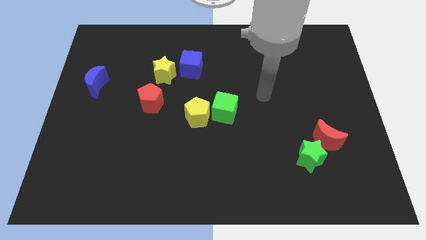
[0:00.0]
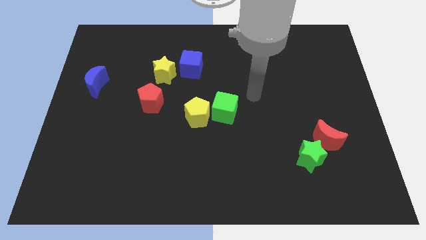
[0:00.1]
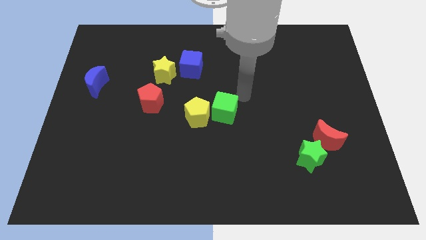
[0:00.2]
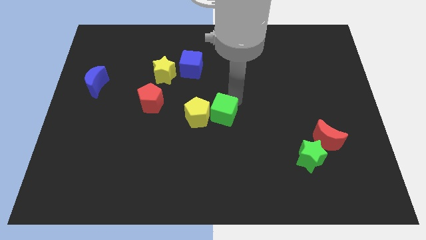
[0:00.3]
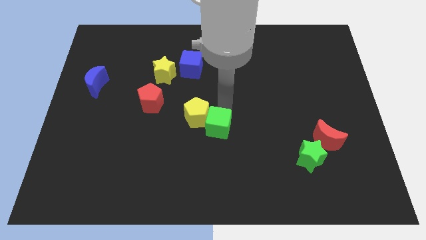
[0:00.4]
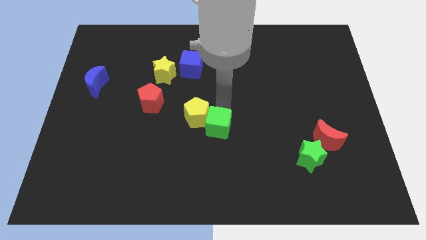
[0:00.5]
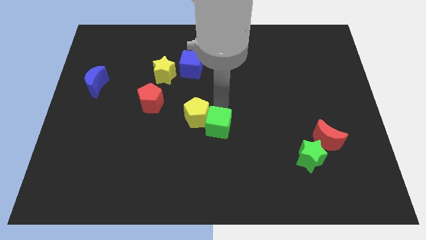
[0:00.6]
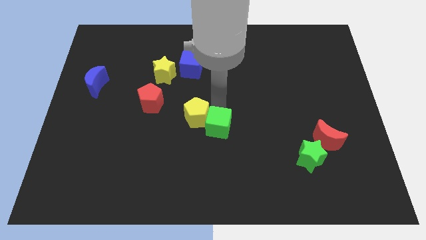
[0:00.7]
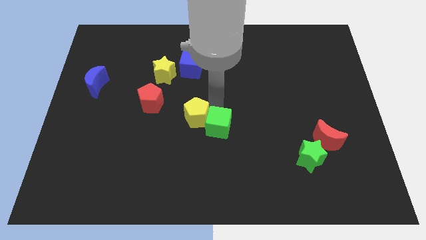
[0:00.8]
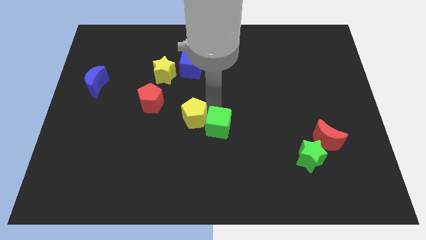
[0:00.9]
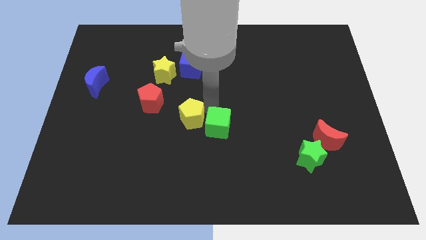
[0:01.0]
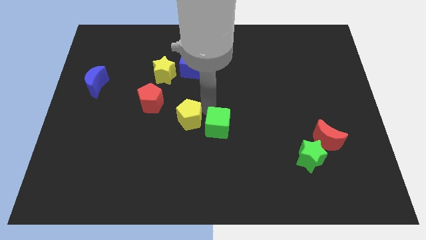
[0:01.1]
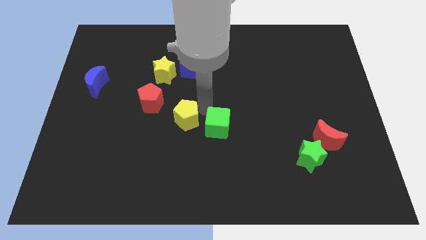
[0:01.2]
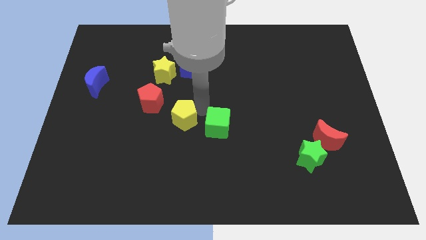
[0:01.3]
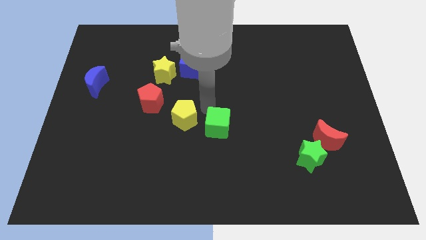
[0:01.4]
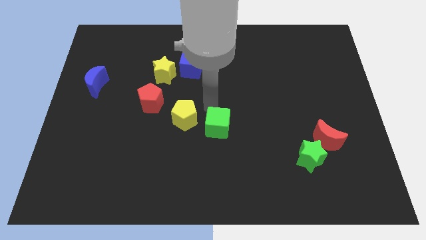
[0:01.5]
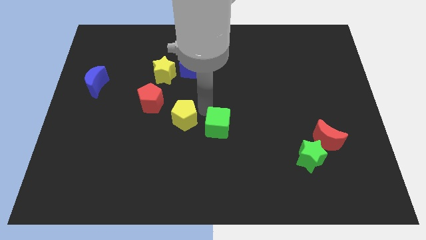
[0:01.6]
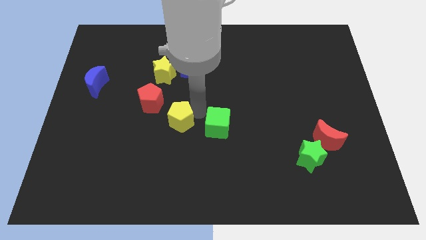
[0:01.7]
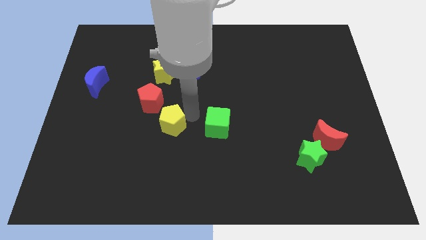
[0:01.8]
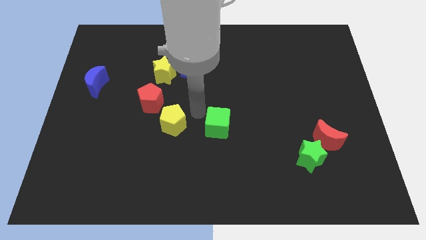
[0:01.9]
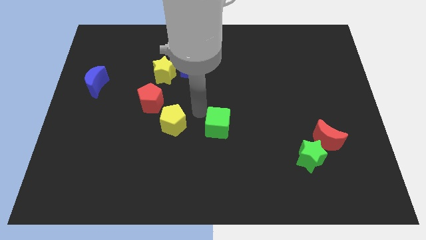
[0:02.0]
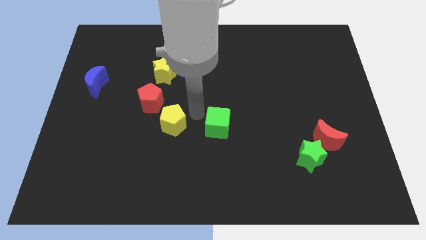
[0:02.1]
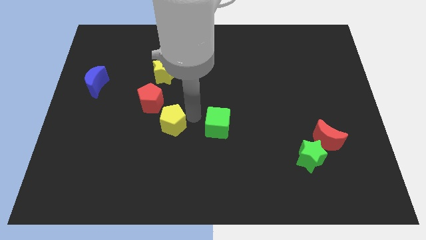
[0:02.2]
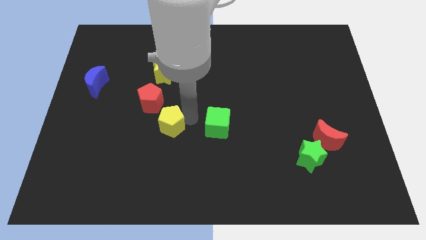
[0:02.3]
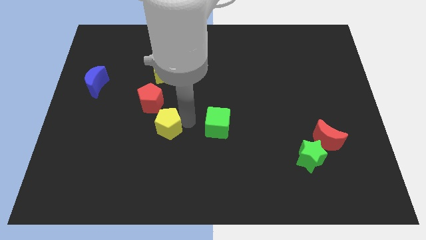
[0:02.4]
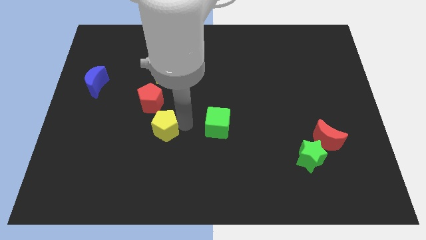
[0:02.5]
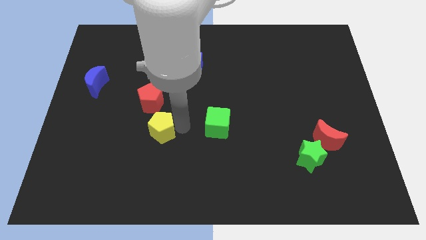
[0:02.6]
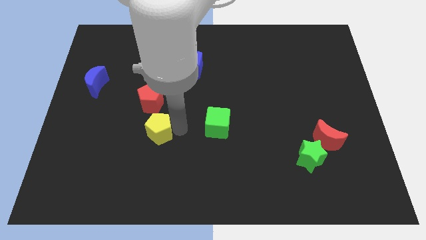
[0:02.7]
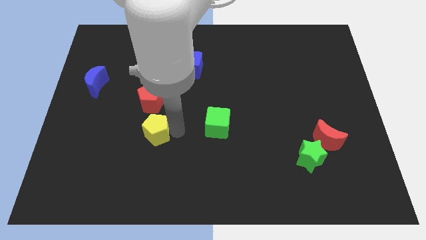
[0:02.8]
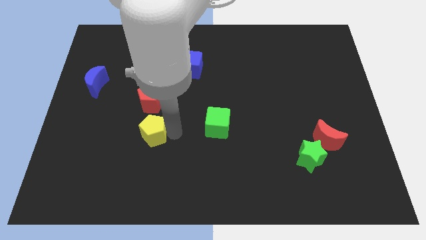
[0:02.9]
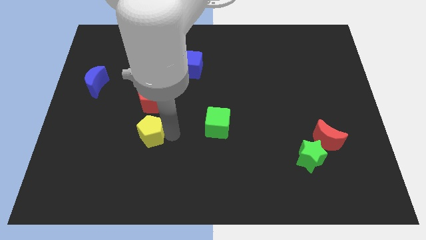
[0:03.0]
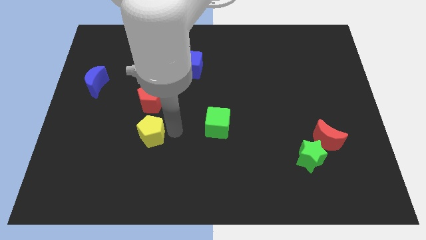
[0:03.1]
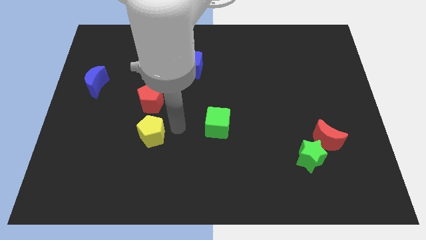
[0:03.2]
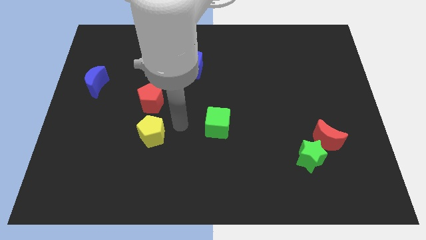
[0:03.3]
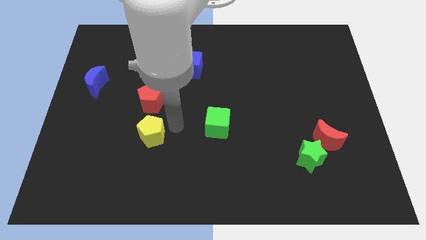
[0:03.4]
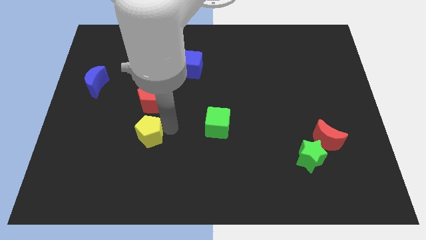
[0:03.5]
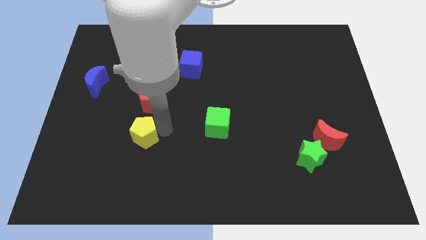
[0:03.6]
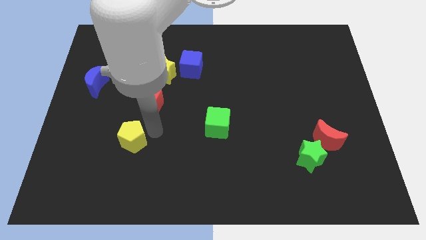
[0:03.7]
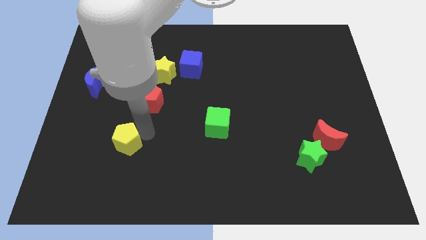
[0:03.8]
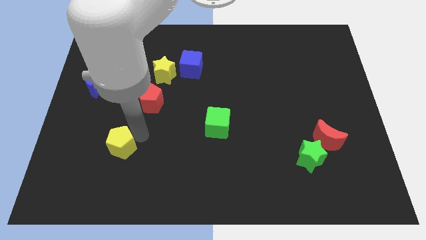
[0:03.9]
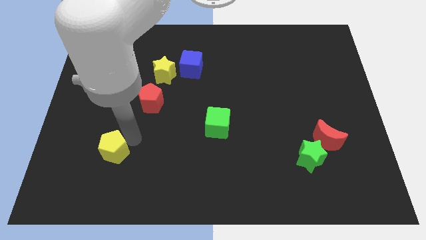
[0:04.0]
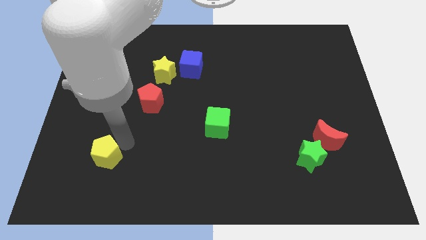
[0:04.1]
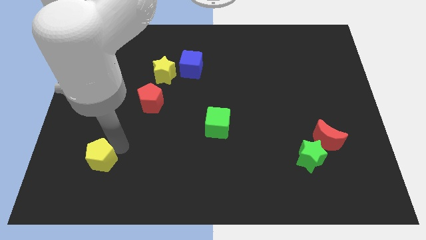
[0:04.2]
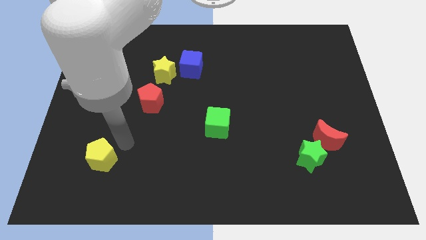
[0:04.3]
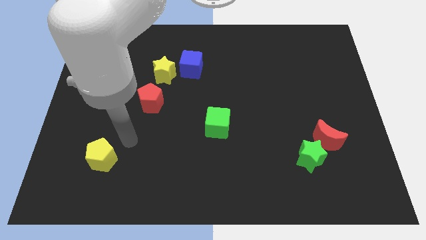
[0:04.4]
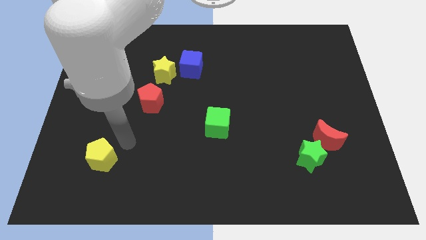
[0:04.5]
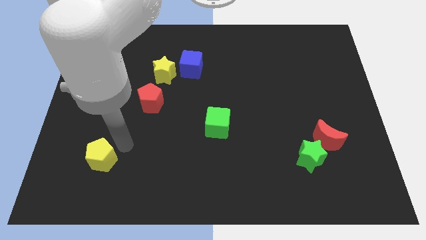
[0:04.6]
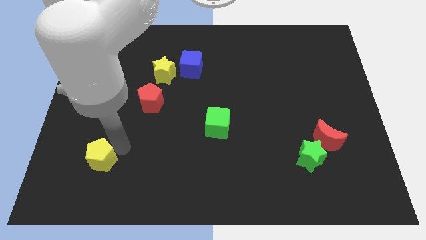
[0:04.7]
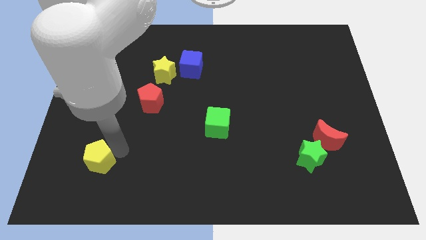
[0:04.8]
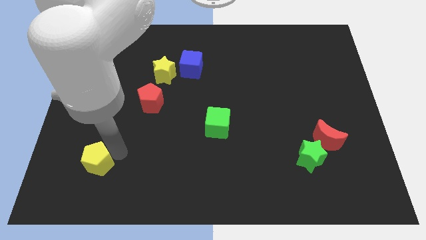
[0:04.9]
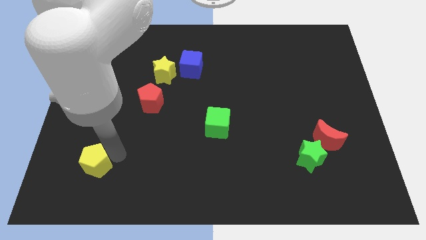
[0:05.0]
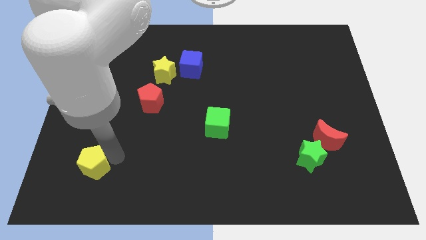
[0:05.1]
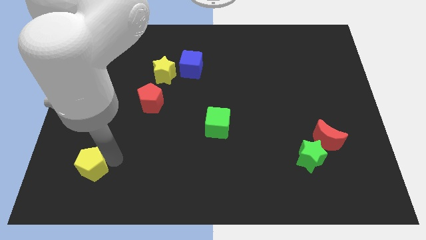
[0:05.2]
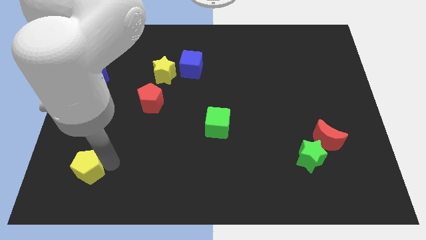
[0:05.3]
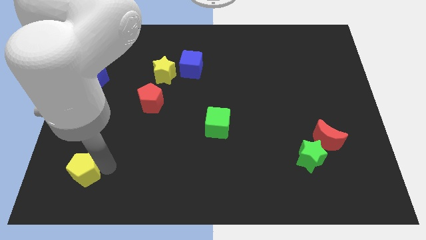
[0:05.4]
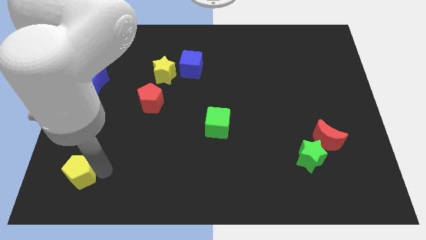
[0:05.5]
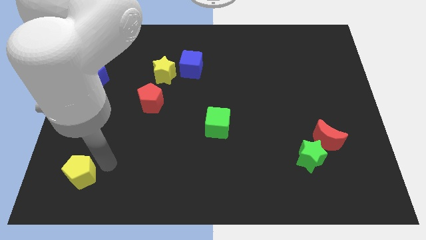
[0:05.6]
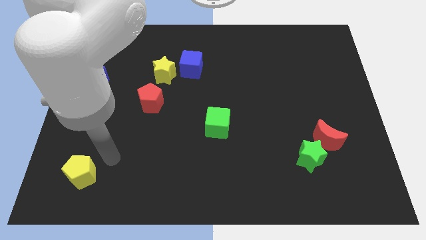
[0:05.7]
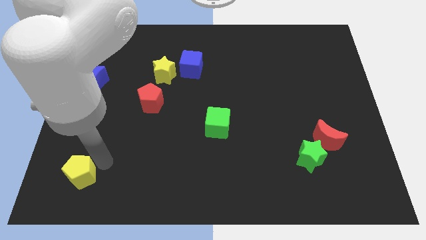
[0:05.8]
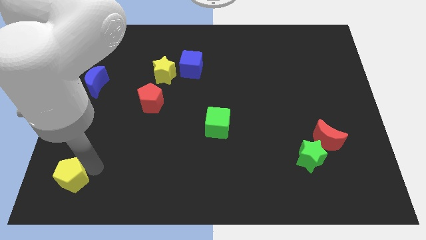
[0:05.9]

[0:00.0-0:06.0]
move the yellow pentagon to the bottom left corner

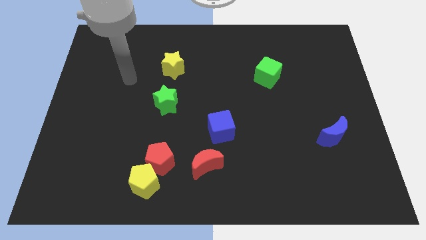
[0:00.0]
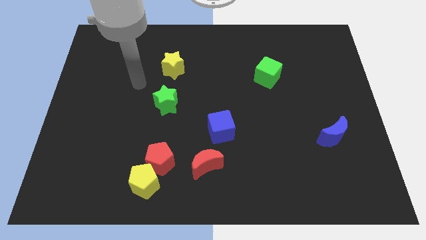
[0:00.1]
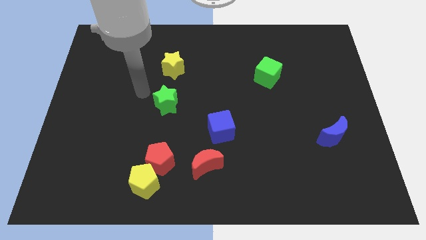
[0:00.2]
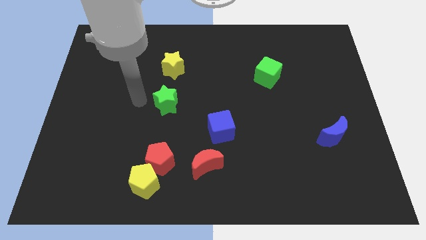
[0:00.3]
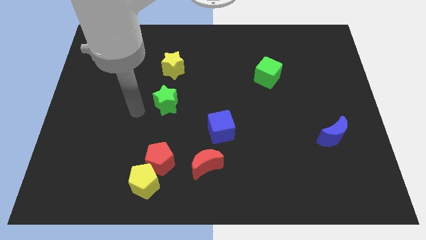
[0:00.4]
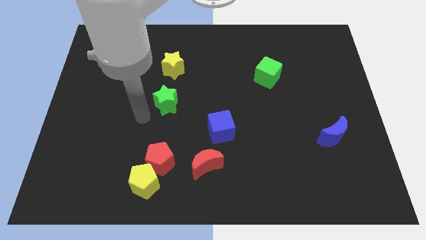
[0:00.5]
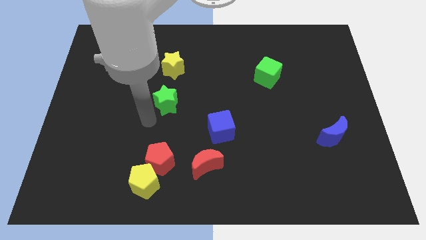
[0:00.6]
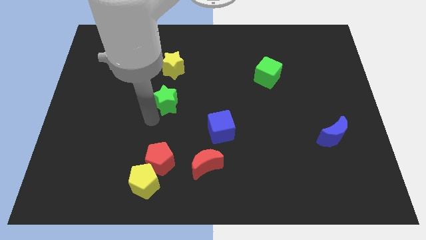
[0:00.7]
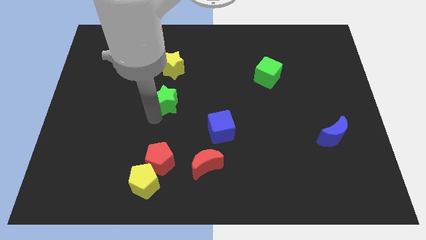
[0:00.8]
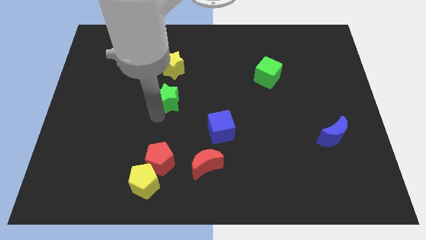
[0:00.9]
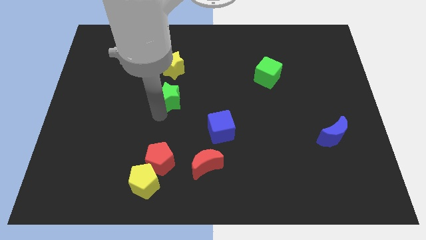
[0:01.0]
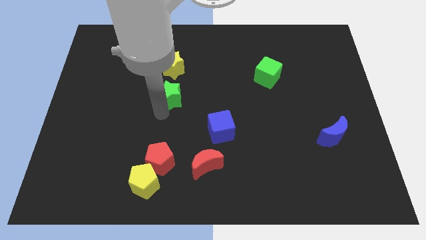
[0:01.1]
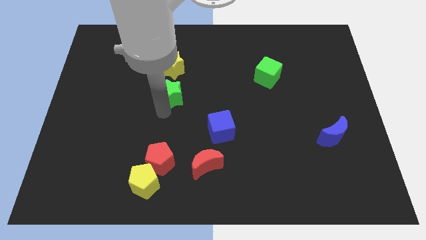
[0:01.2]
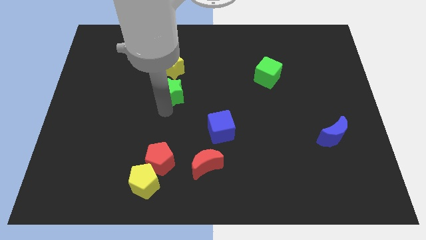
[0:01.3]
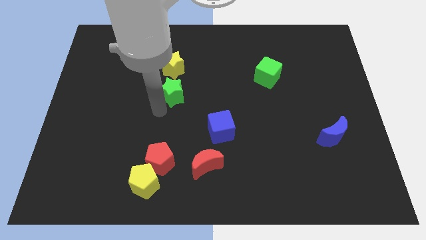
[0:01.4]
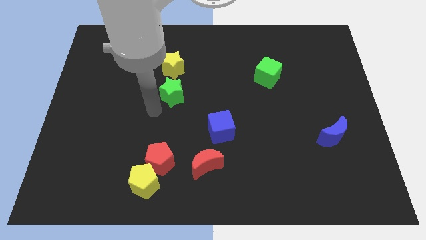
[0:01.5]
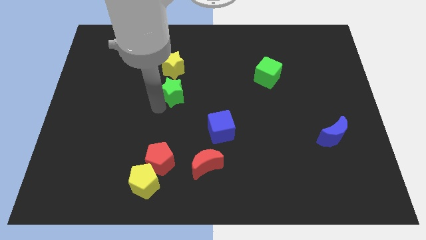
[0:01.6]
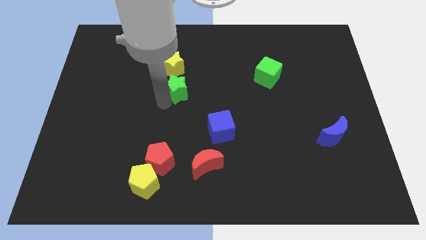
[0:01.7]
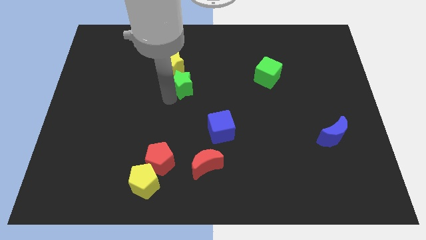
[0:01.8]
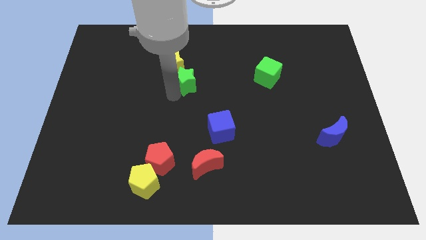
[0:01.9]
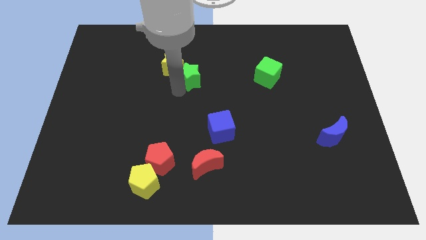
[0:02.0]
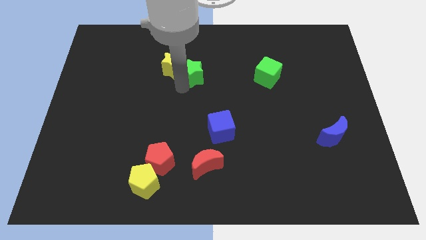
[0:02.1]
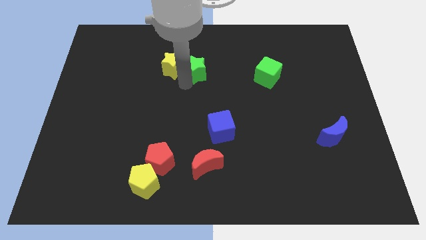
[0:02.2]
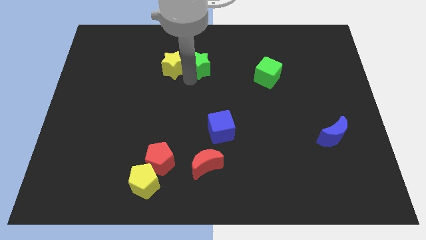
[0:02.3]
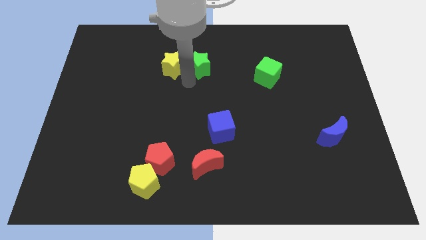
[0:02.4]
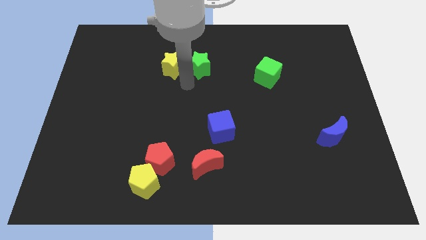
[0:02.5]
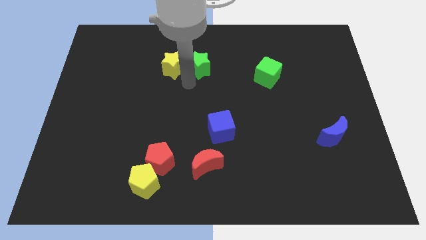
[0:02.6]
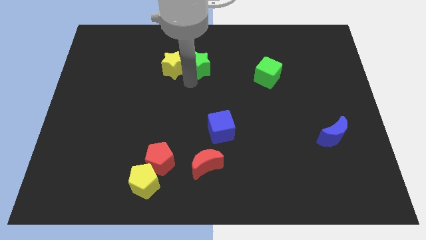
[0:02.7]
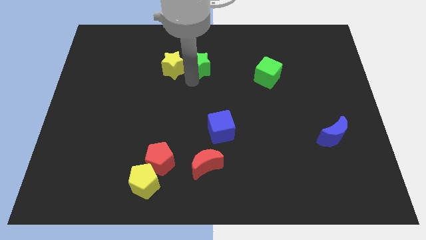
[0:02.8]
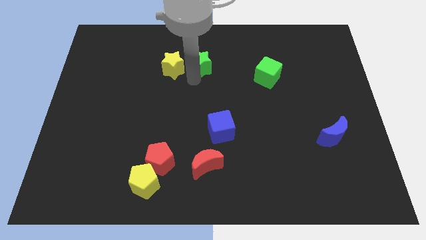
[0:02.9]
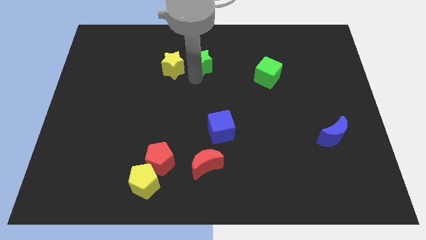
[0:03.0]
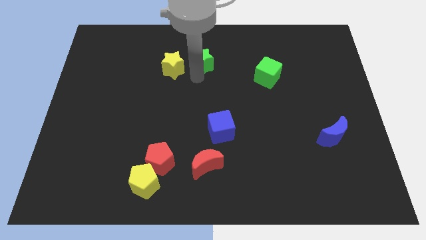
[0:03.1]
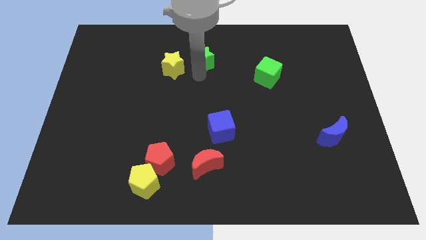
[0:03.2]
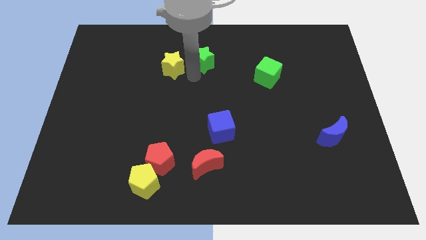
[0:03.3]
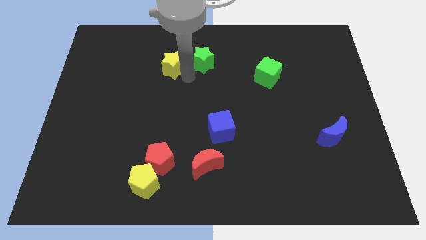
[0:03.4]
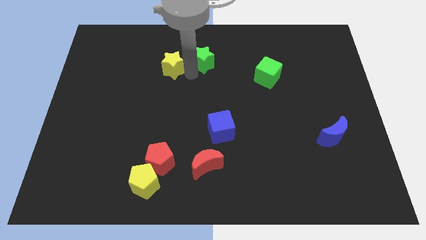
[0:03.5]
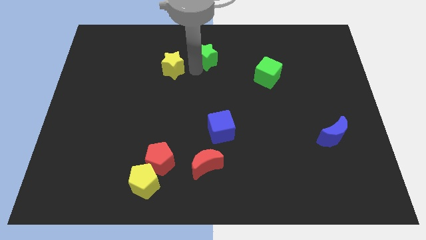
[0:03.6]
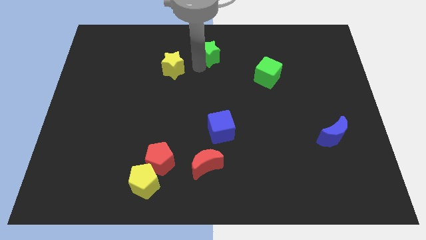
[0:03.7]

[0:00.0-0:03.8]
put the green star to the top side
